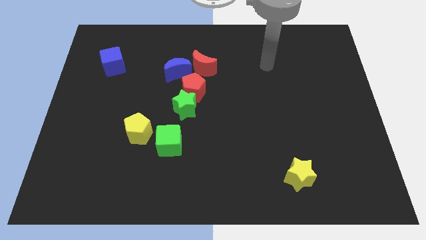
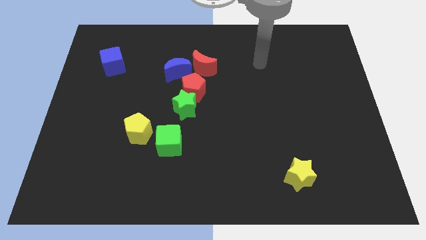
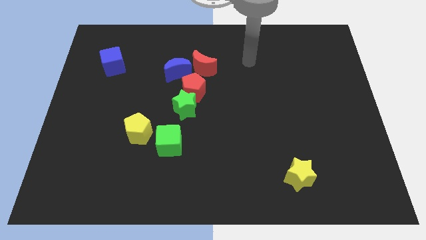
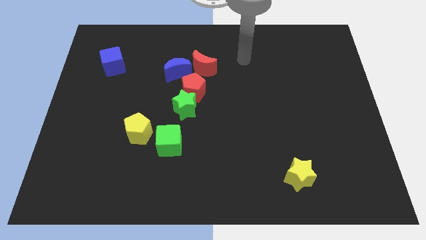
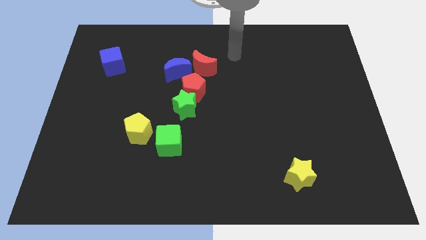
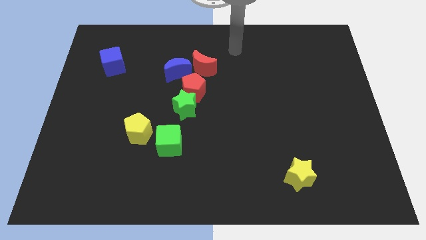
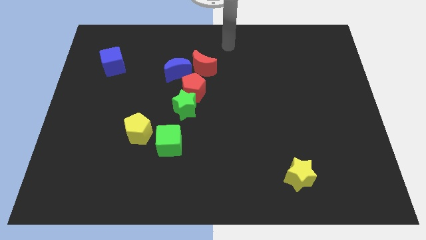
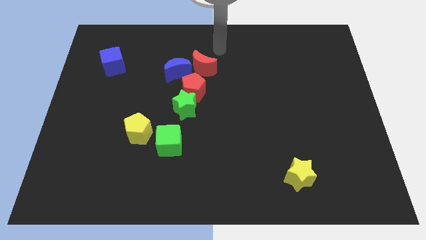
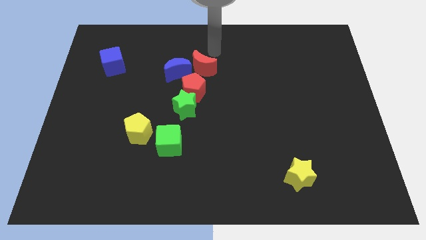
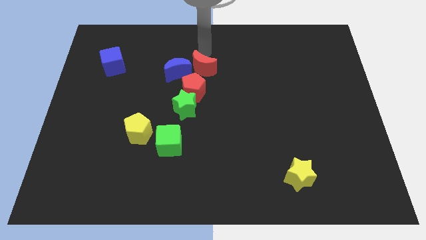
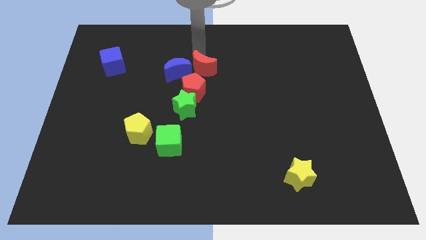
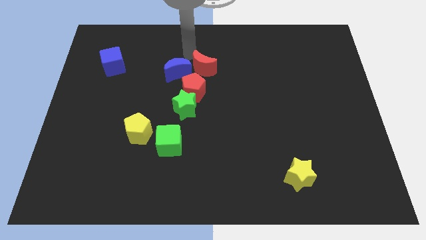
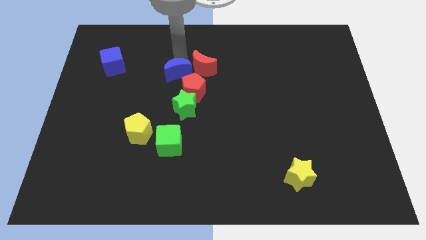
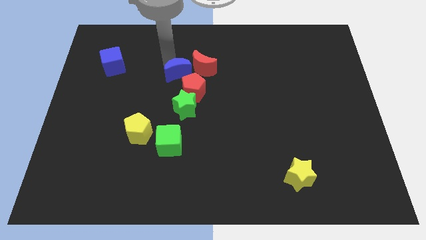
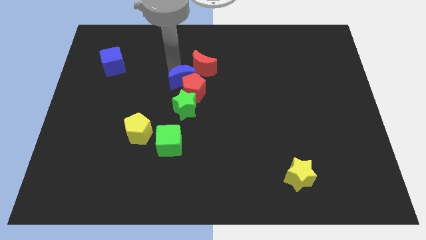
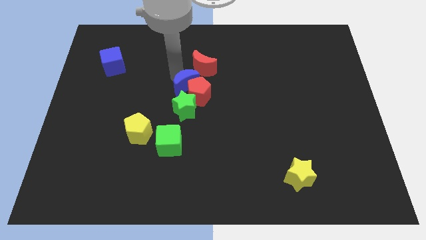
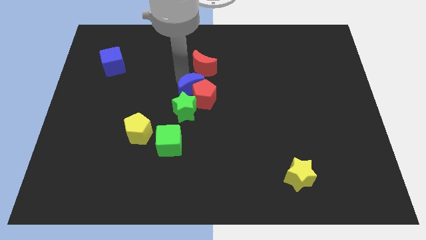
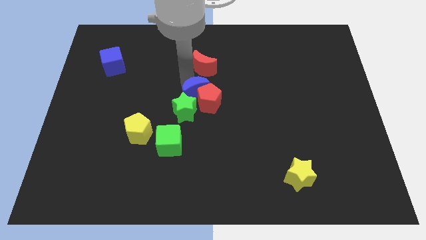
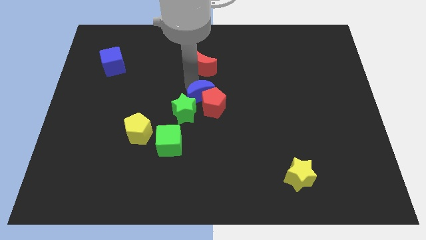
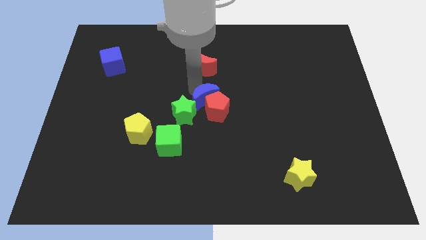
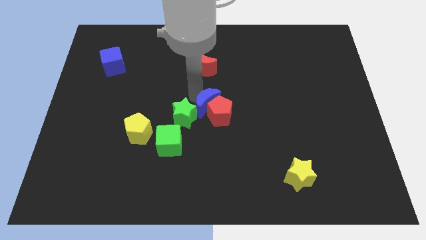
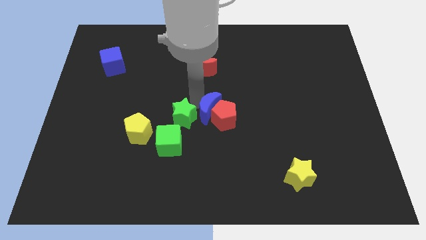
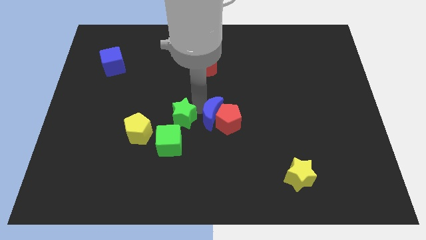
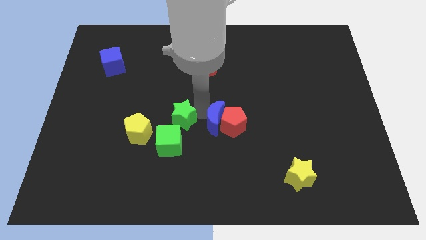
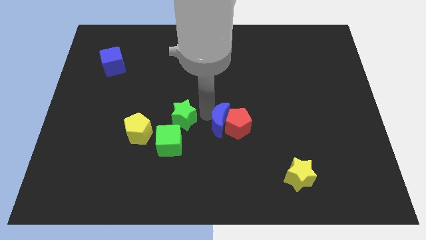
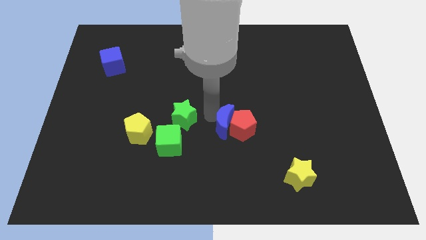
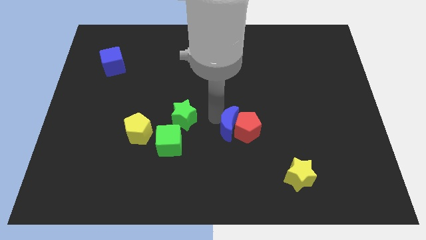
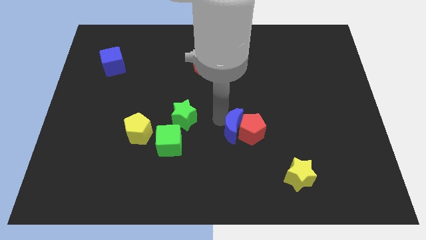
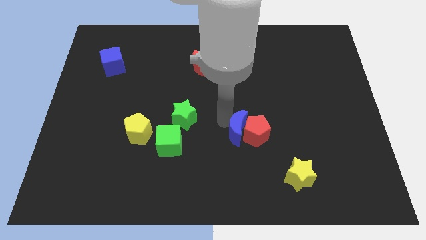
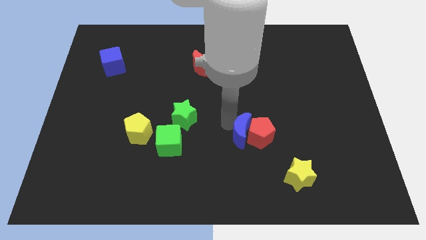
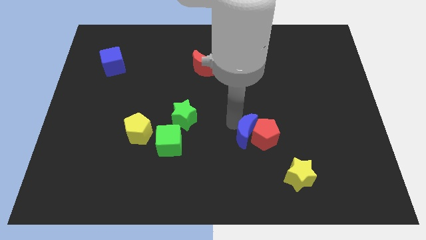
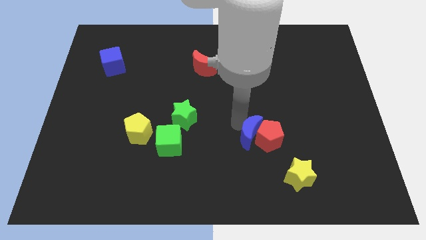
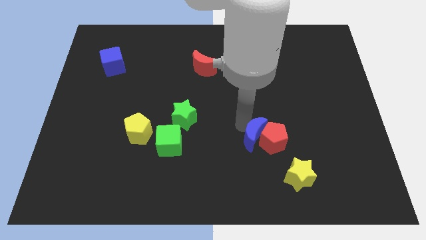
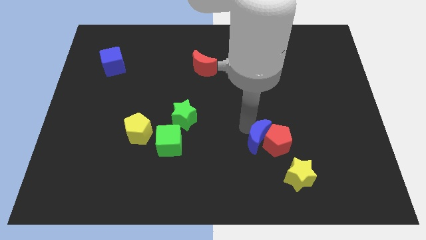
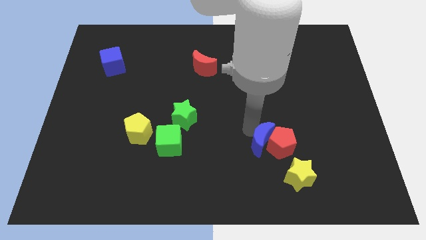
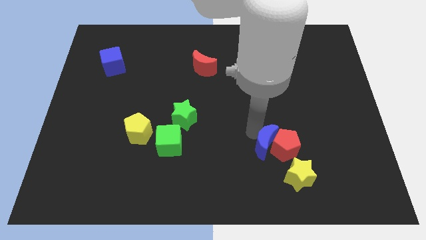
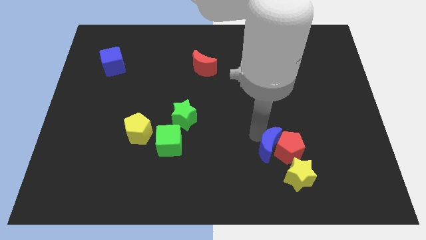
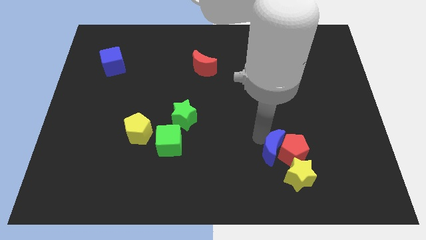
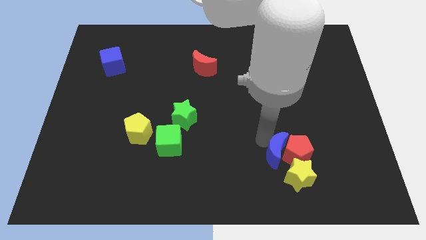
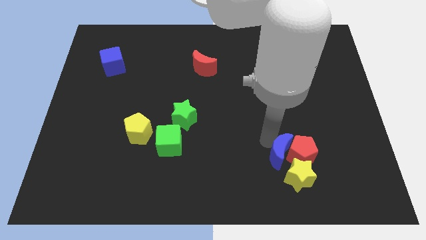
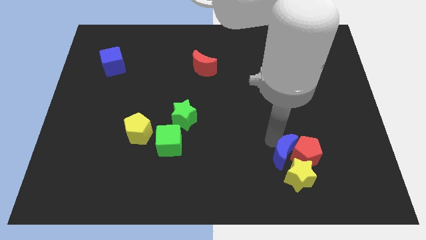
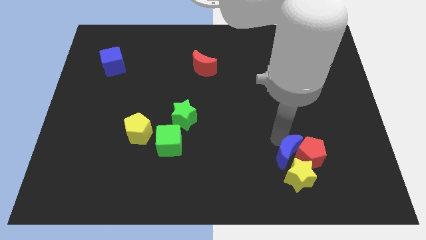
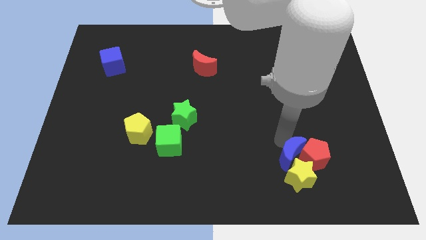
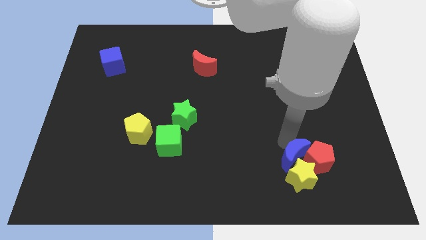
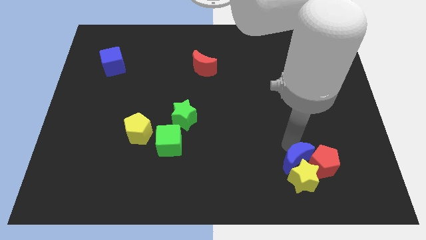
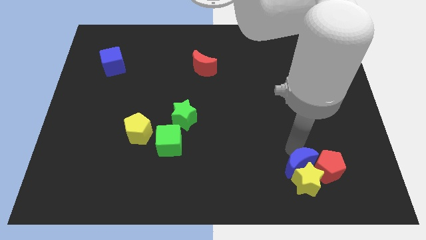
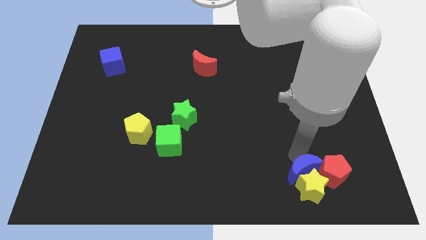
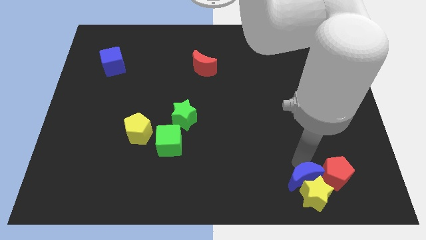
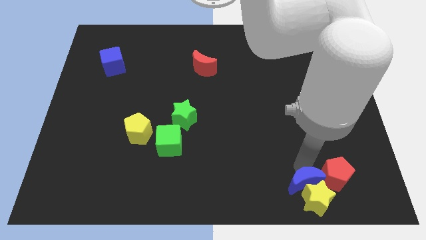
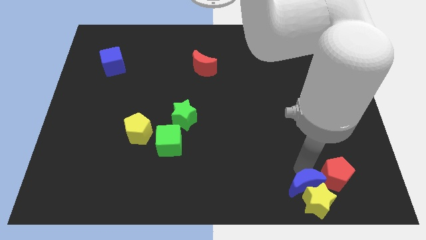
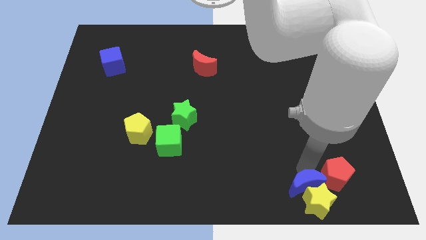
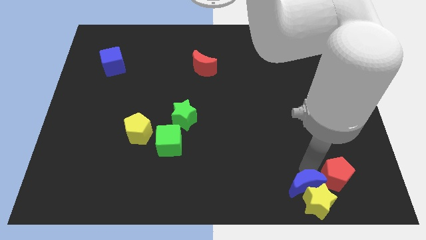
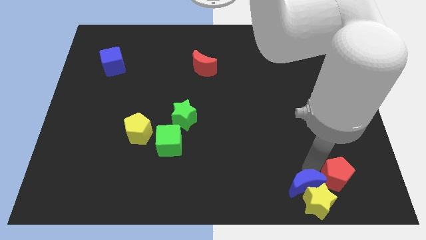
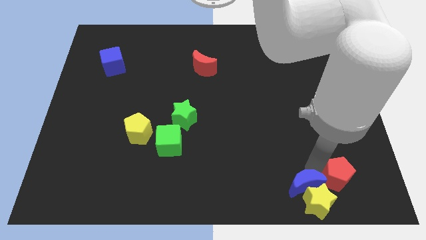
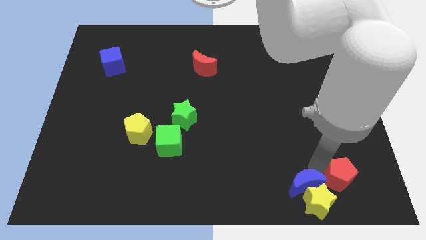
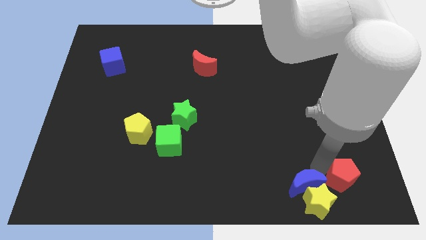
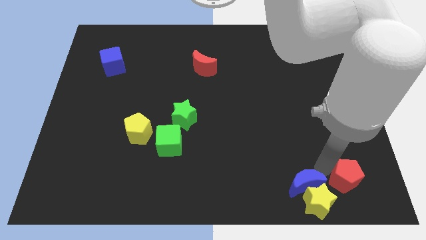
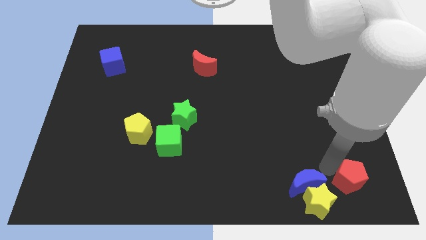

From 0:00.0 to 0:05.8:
move the red pentagon to the lower right corner
